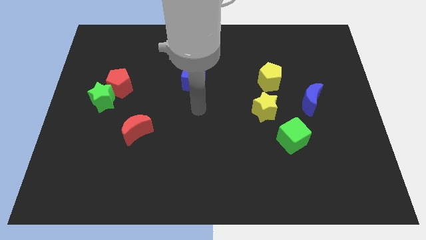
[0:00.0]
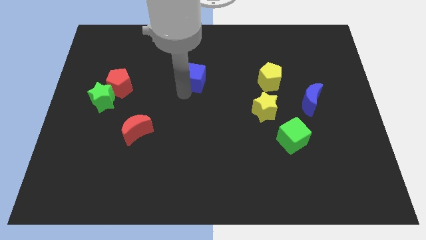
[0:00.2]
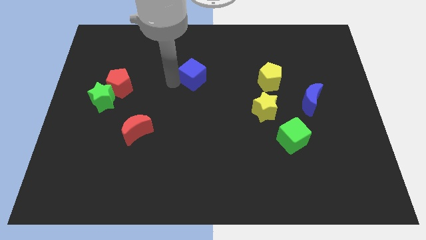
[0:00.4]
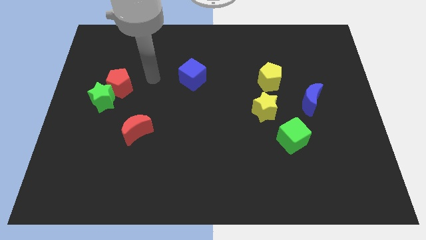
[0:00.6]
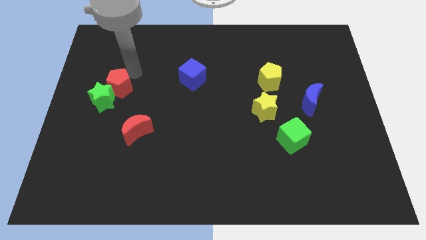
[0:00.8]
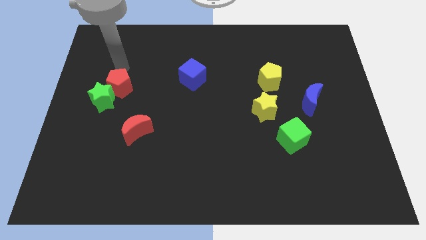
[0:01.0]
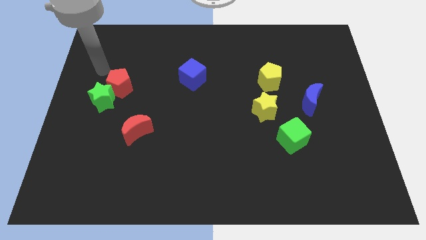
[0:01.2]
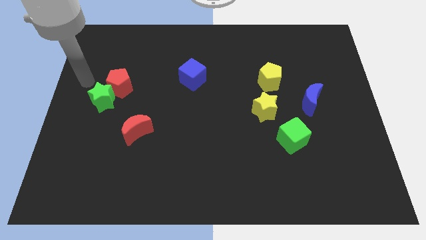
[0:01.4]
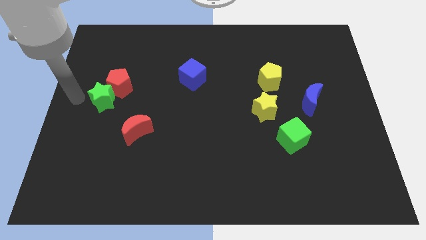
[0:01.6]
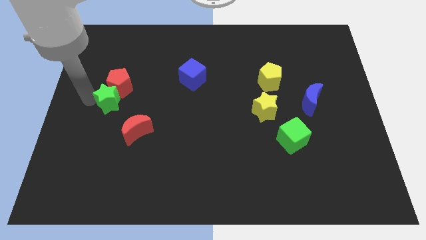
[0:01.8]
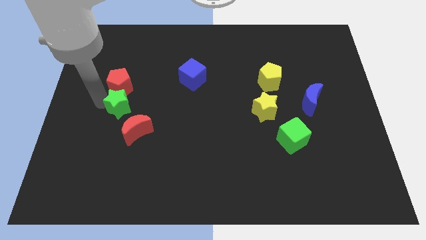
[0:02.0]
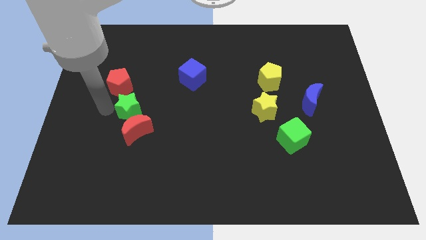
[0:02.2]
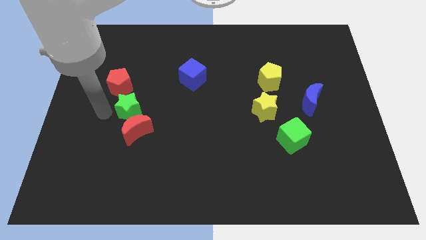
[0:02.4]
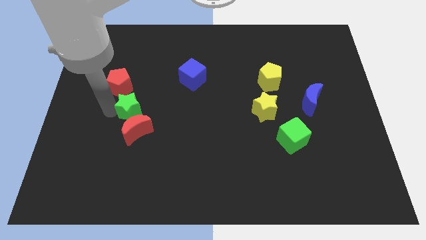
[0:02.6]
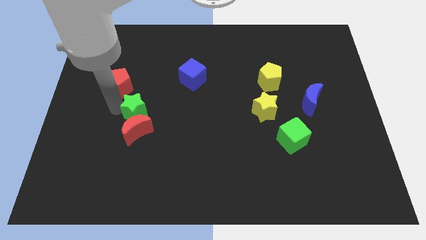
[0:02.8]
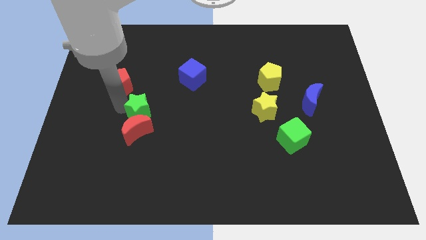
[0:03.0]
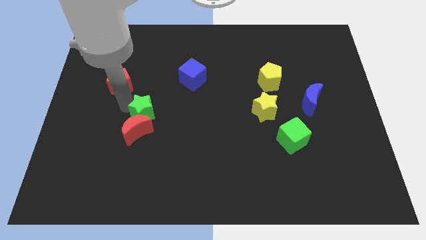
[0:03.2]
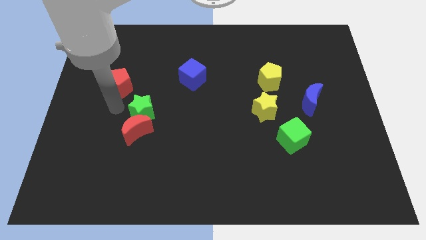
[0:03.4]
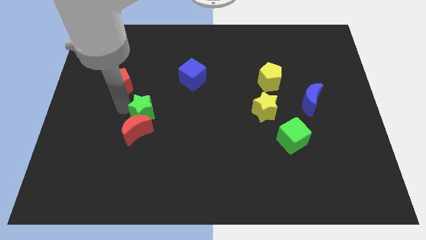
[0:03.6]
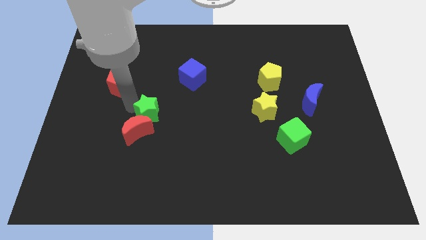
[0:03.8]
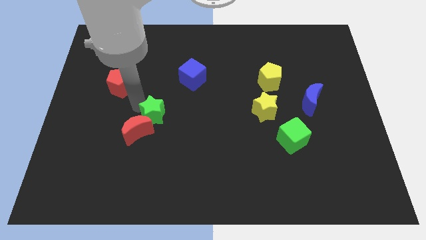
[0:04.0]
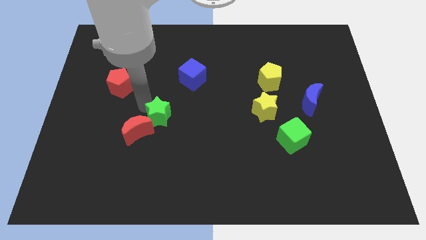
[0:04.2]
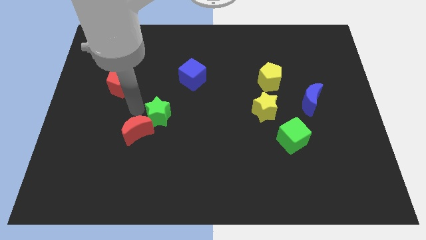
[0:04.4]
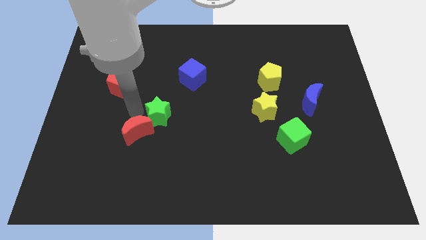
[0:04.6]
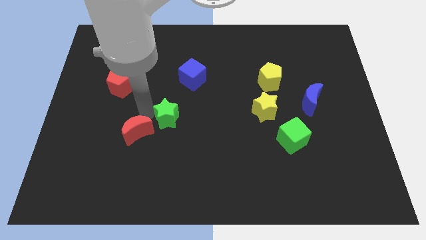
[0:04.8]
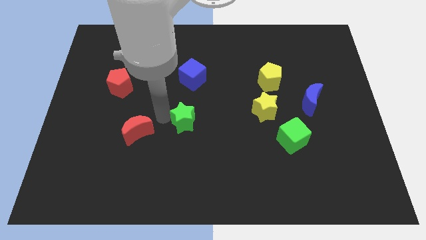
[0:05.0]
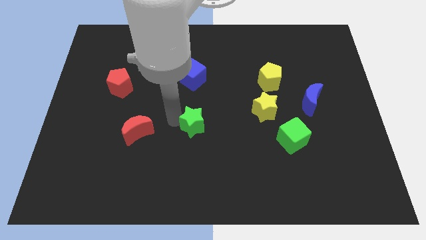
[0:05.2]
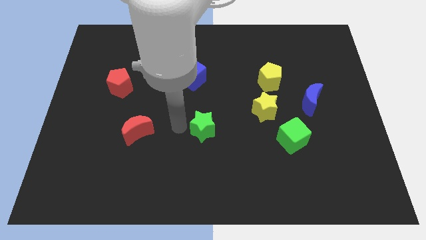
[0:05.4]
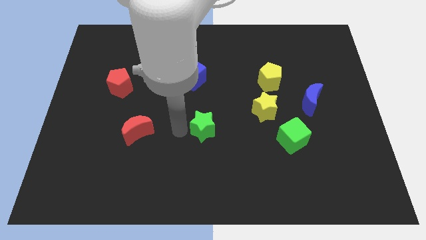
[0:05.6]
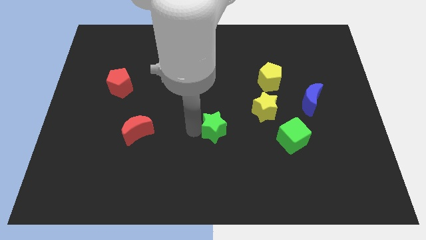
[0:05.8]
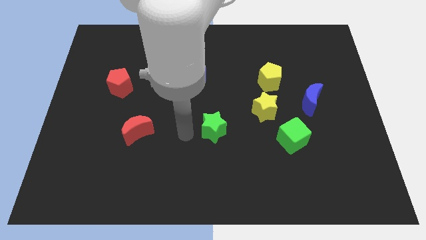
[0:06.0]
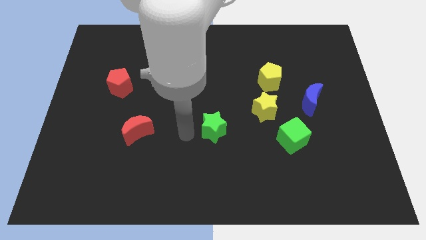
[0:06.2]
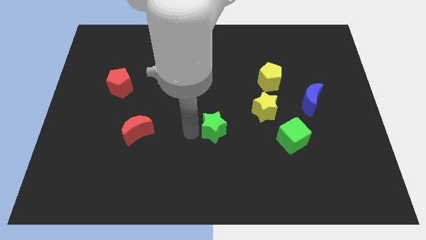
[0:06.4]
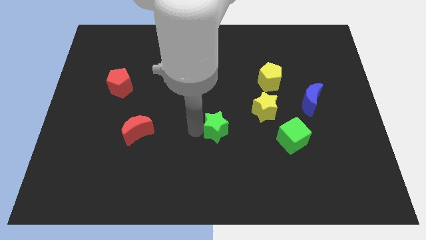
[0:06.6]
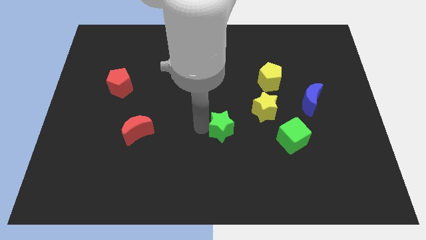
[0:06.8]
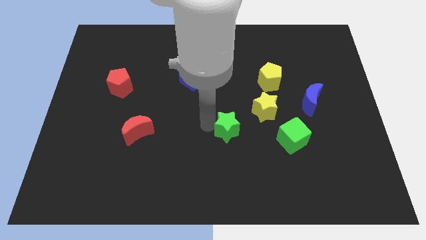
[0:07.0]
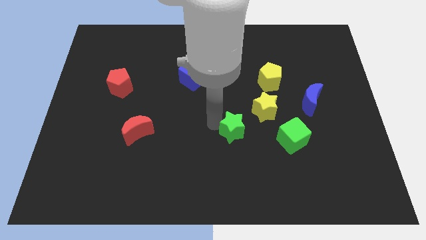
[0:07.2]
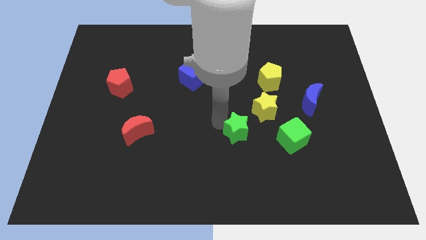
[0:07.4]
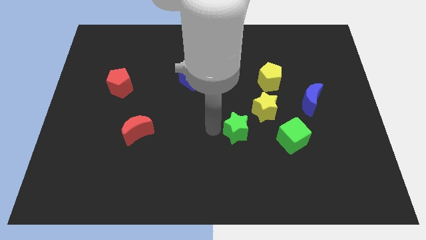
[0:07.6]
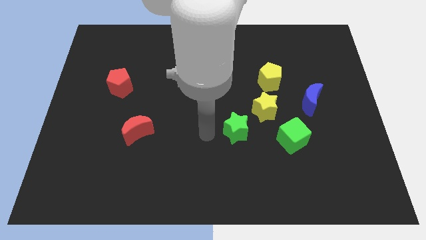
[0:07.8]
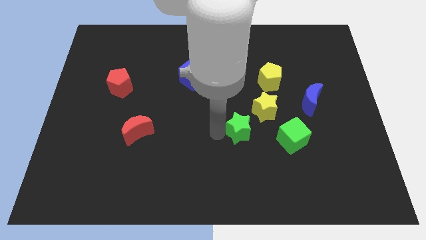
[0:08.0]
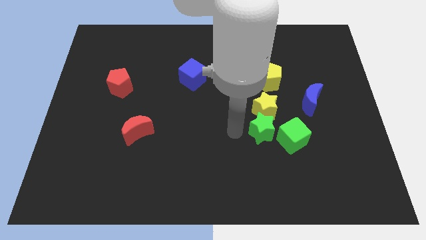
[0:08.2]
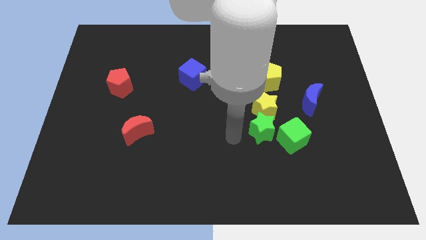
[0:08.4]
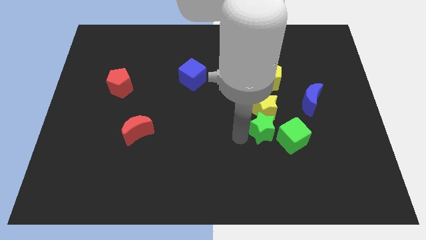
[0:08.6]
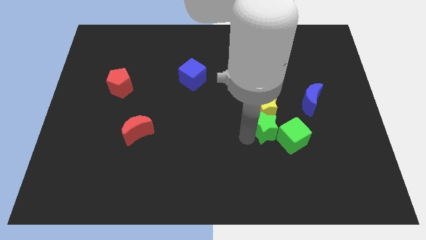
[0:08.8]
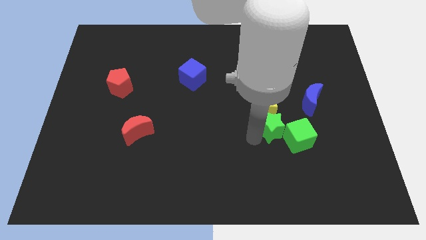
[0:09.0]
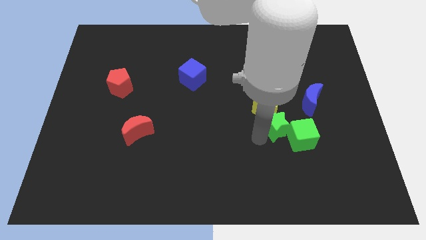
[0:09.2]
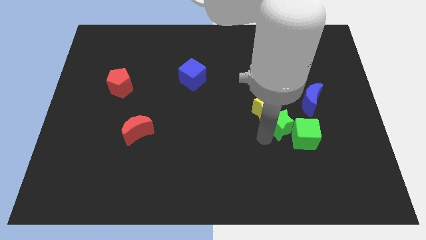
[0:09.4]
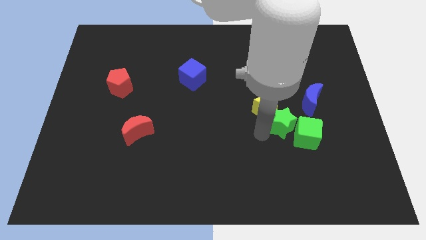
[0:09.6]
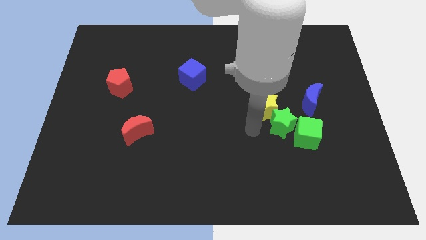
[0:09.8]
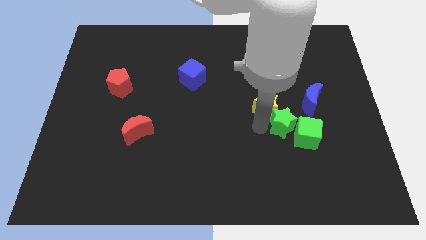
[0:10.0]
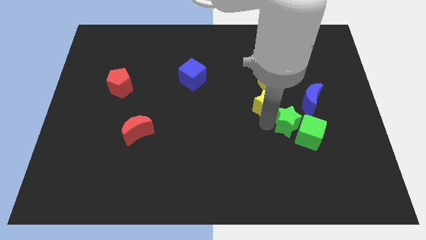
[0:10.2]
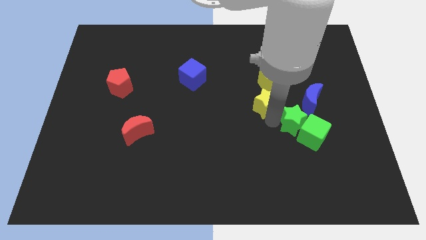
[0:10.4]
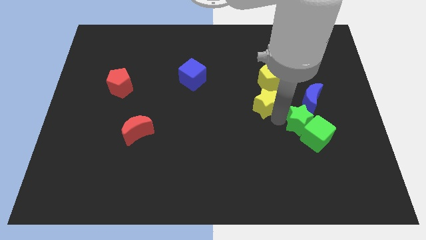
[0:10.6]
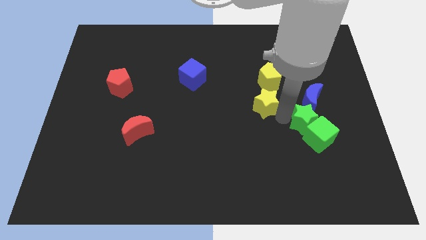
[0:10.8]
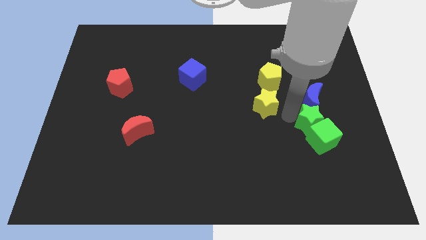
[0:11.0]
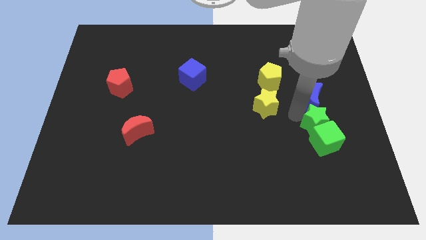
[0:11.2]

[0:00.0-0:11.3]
push the green star to the bottom right side of the blue moon

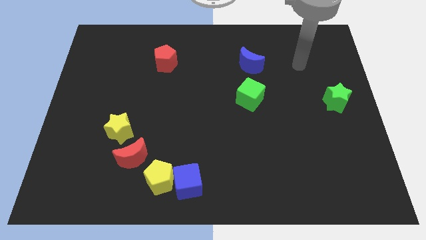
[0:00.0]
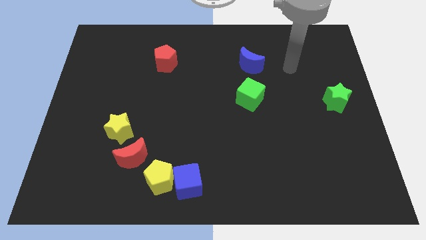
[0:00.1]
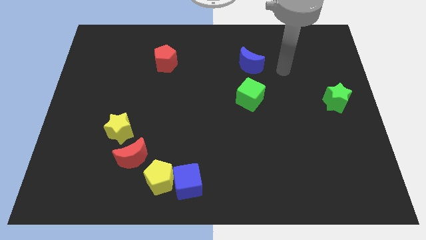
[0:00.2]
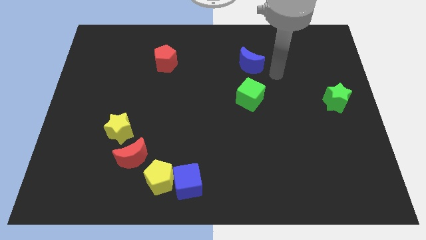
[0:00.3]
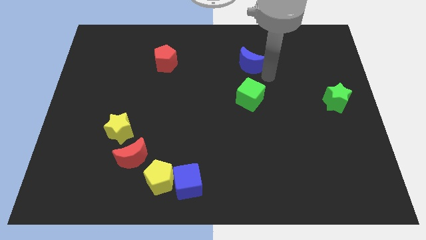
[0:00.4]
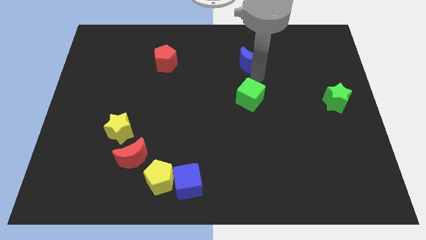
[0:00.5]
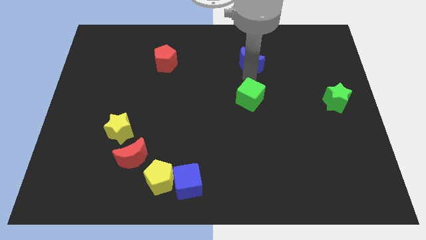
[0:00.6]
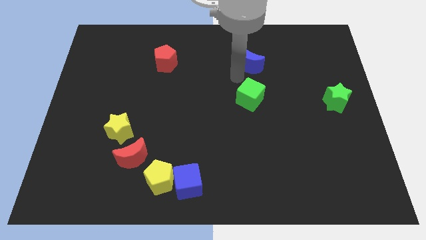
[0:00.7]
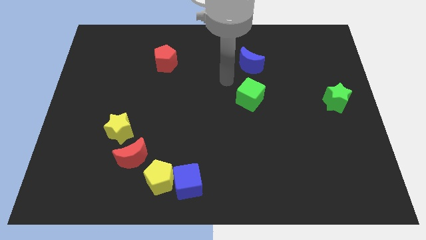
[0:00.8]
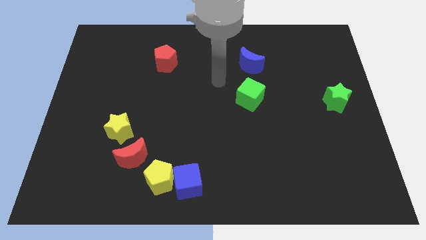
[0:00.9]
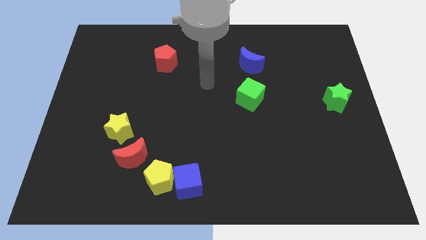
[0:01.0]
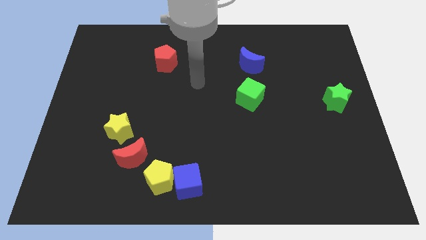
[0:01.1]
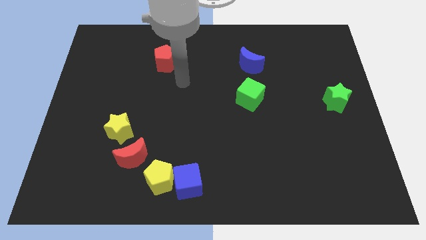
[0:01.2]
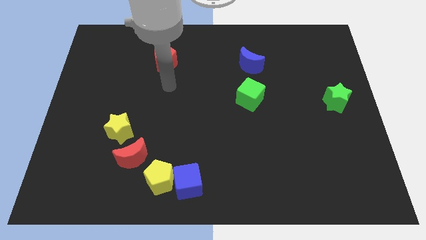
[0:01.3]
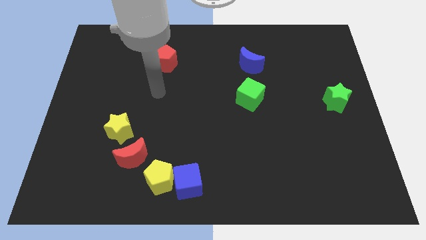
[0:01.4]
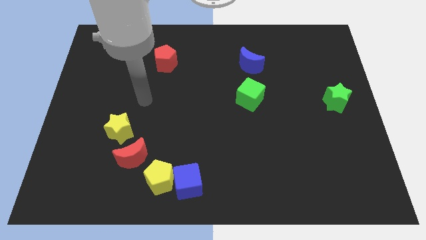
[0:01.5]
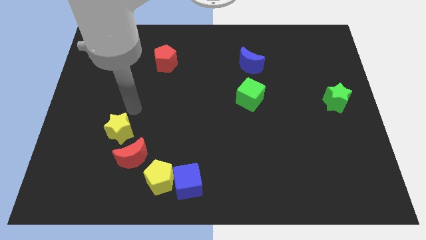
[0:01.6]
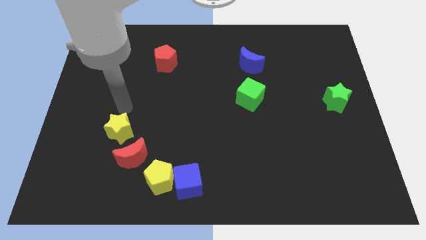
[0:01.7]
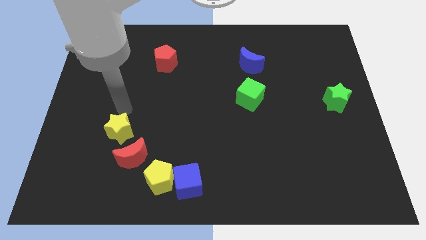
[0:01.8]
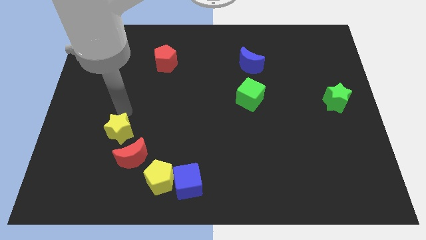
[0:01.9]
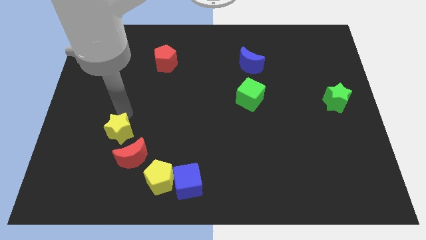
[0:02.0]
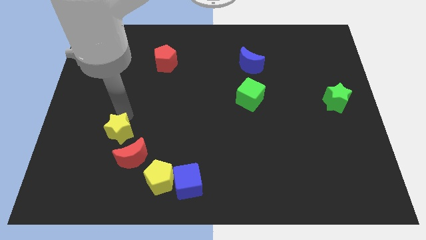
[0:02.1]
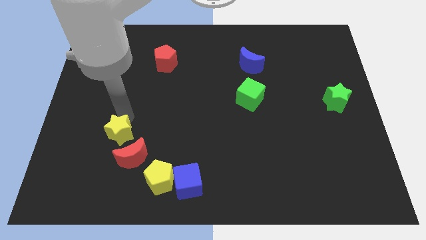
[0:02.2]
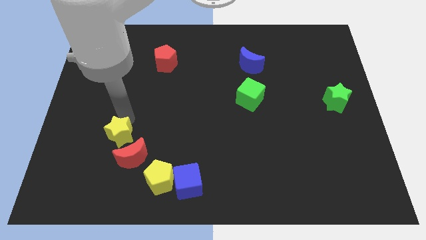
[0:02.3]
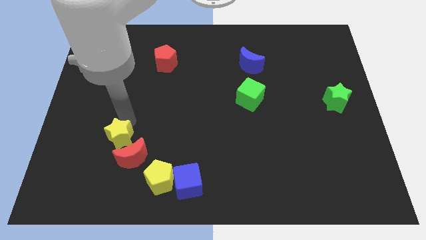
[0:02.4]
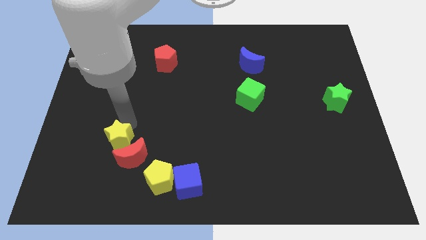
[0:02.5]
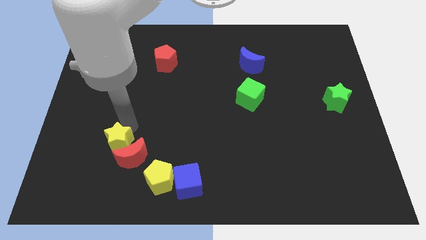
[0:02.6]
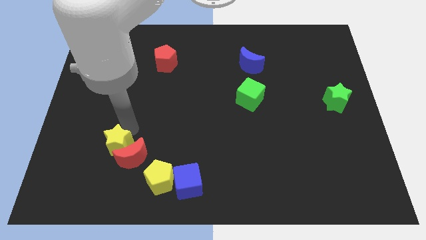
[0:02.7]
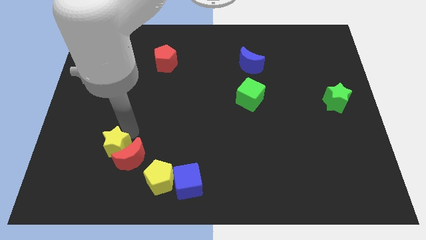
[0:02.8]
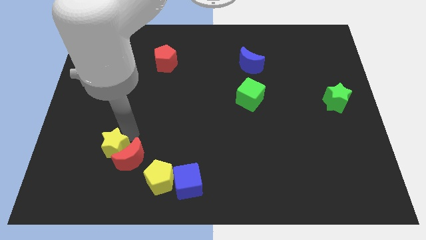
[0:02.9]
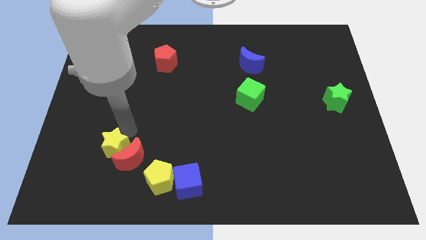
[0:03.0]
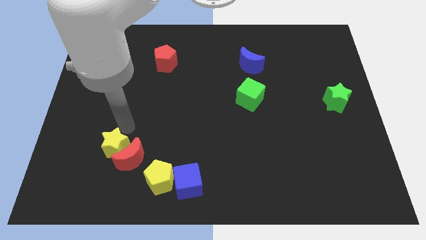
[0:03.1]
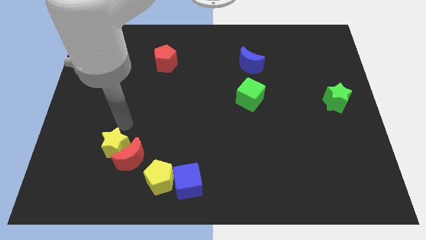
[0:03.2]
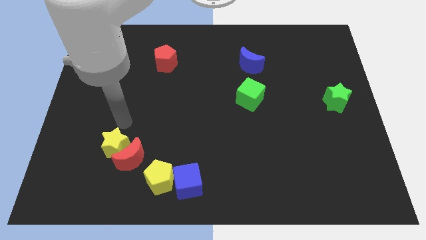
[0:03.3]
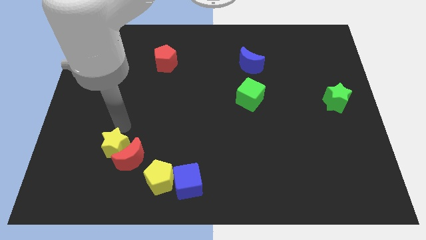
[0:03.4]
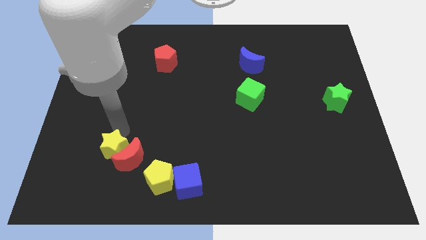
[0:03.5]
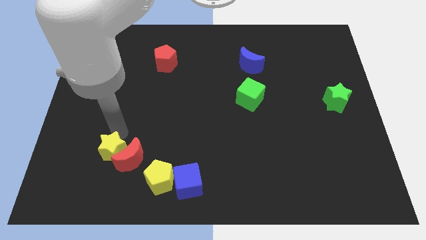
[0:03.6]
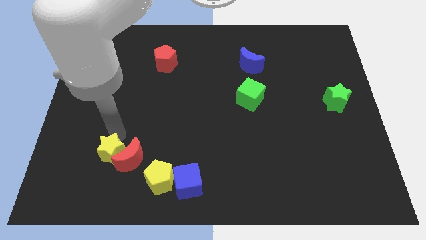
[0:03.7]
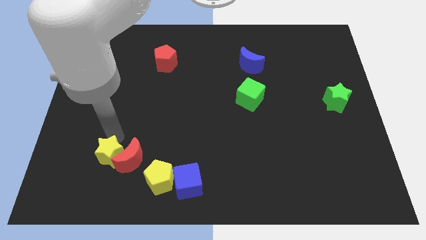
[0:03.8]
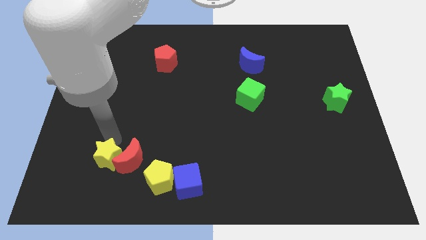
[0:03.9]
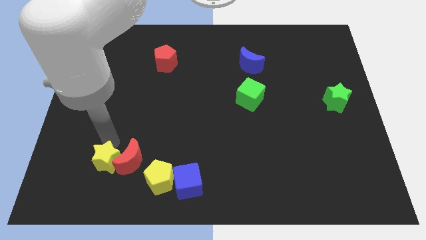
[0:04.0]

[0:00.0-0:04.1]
move the yellow star to the left side of the yellow pentagon
